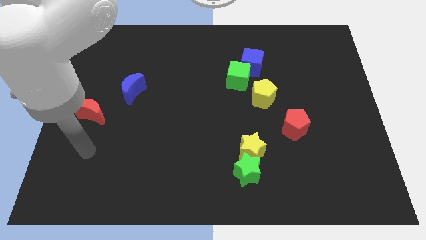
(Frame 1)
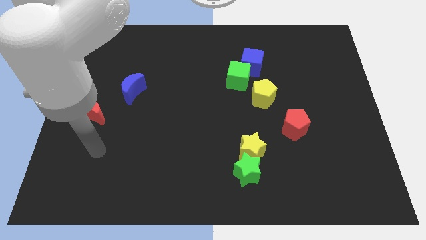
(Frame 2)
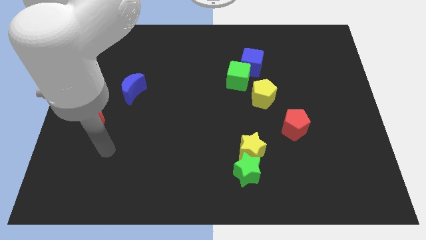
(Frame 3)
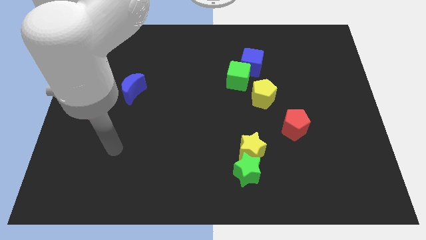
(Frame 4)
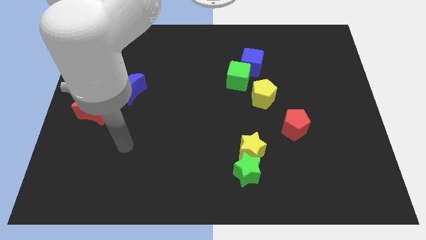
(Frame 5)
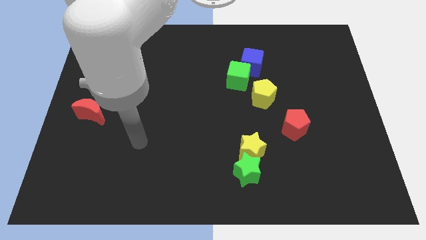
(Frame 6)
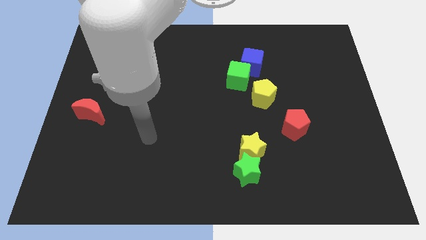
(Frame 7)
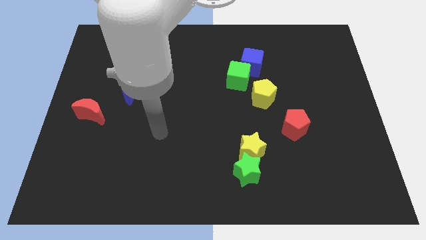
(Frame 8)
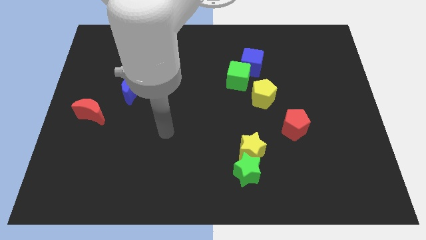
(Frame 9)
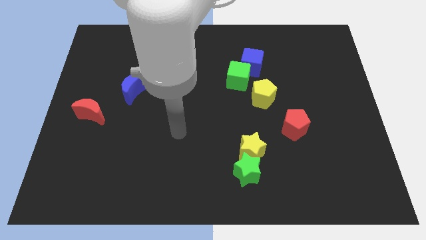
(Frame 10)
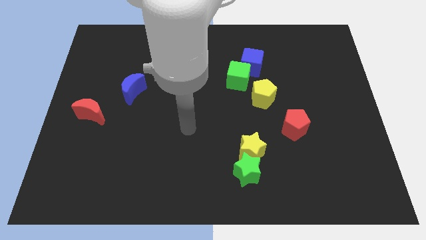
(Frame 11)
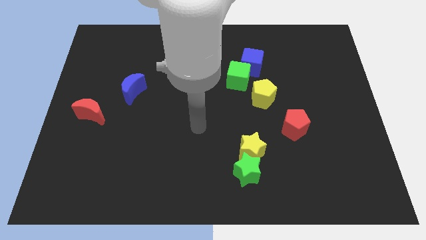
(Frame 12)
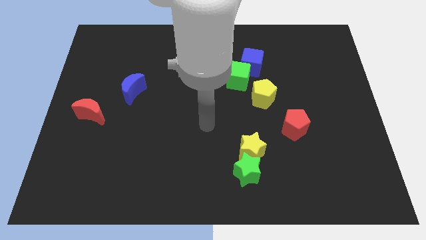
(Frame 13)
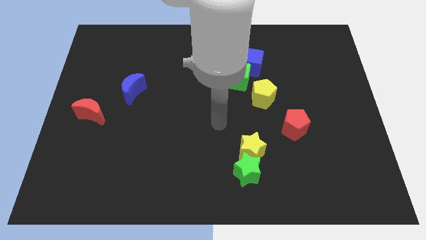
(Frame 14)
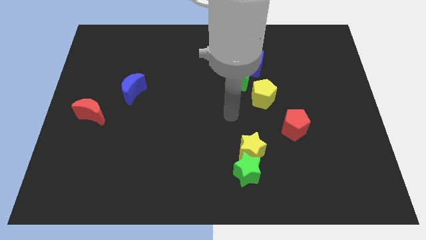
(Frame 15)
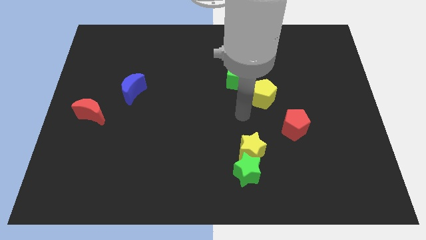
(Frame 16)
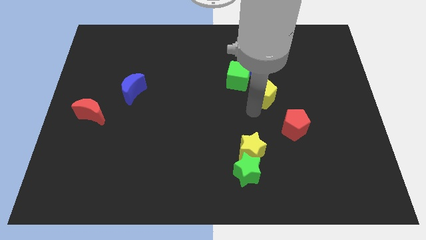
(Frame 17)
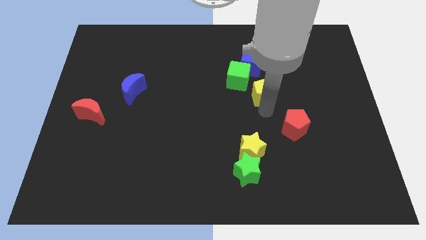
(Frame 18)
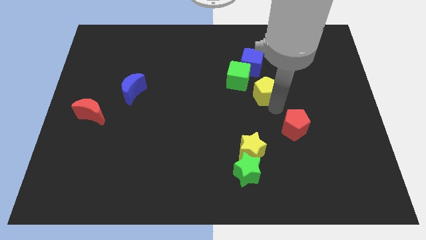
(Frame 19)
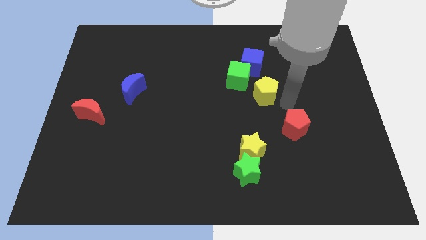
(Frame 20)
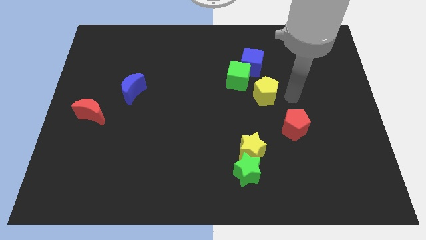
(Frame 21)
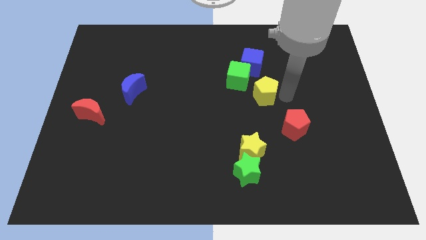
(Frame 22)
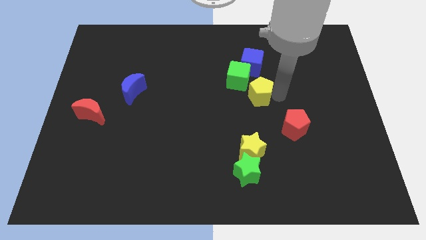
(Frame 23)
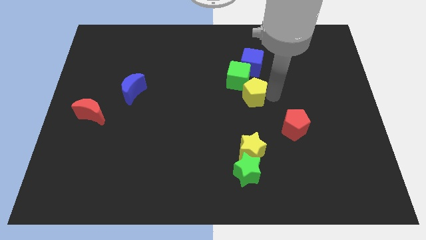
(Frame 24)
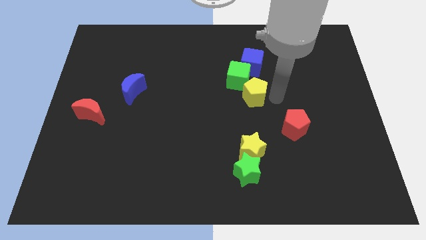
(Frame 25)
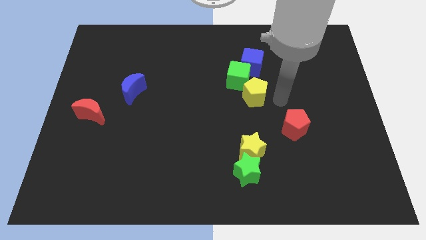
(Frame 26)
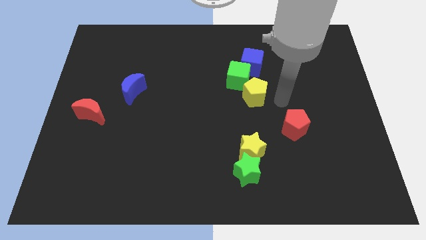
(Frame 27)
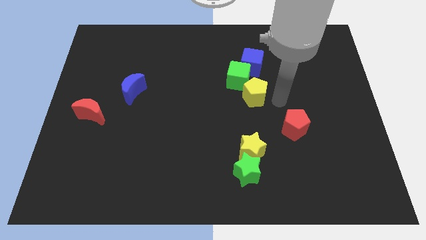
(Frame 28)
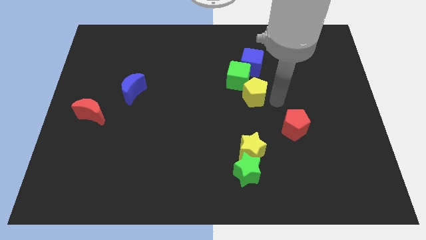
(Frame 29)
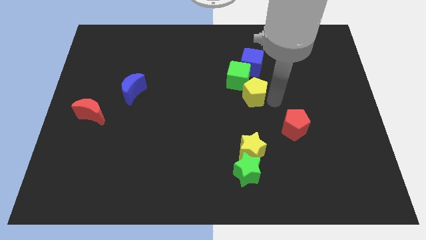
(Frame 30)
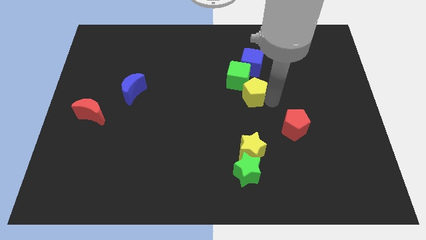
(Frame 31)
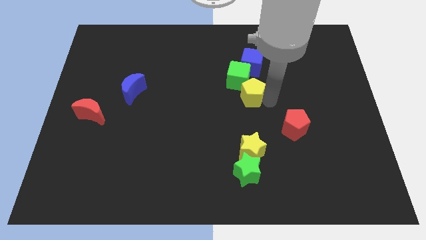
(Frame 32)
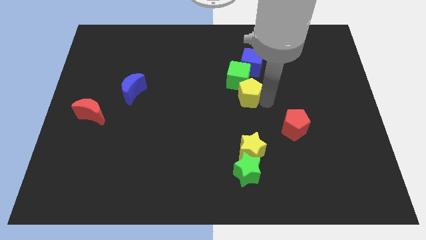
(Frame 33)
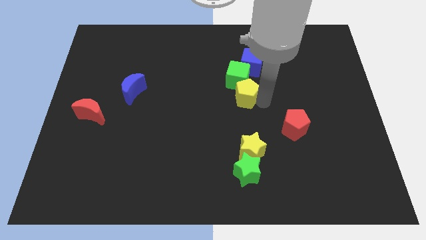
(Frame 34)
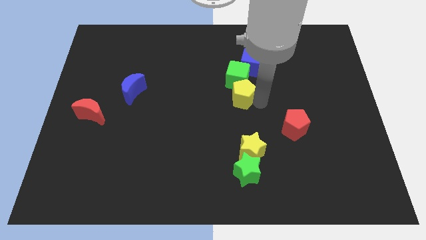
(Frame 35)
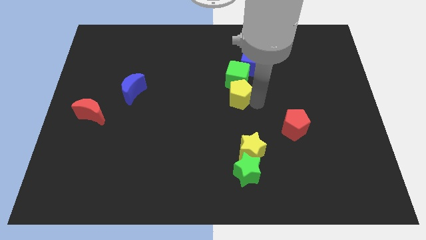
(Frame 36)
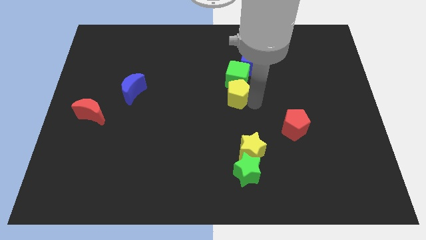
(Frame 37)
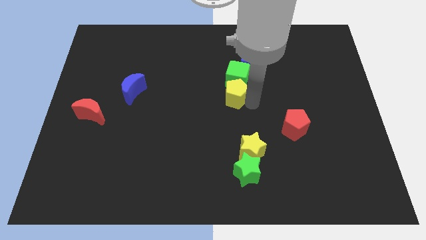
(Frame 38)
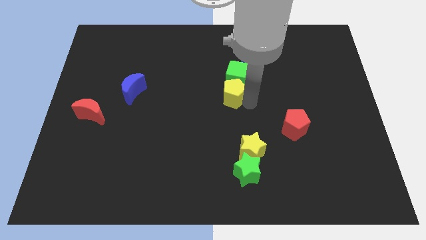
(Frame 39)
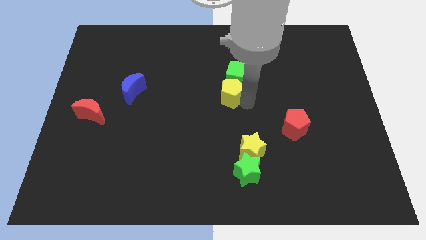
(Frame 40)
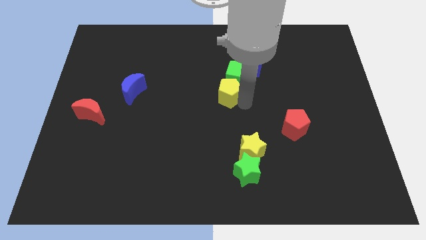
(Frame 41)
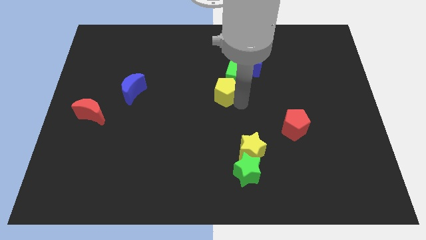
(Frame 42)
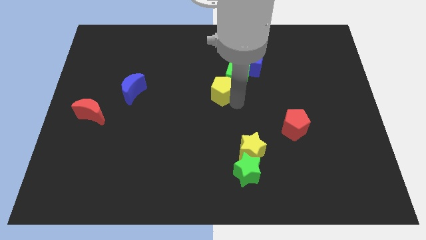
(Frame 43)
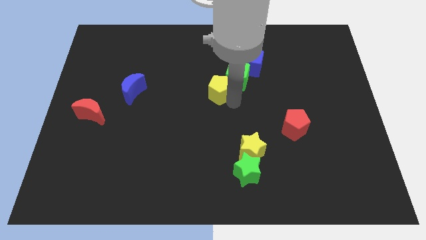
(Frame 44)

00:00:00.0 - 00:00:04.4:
push the yellow pentagon a little bit upwards and left

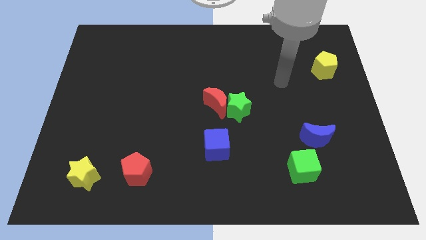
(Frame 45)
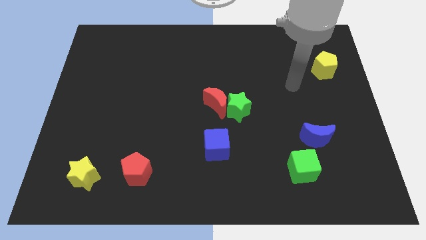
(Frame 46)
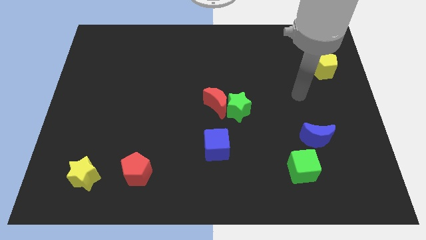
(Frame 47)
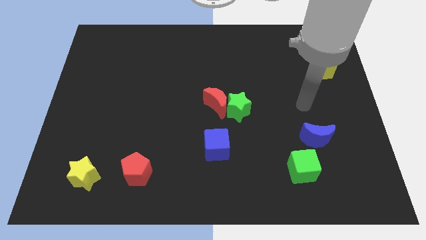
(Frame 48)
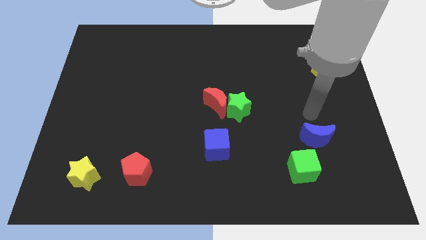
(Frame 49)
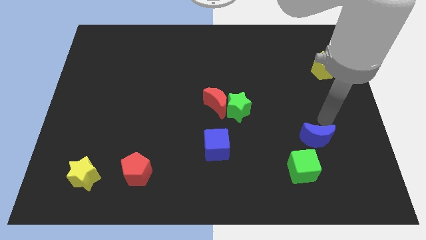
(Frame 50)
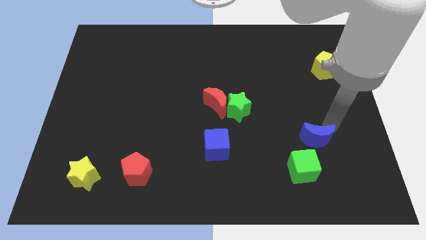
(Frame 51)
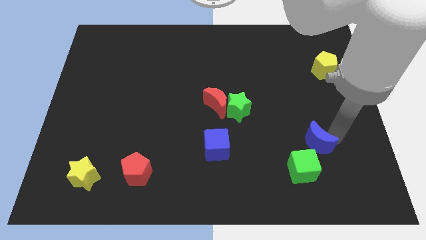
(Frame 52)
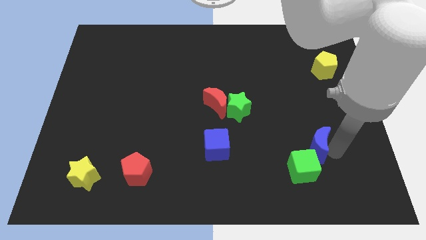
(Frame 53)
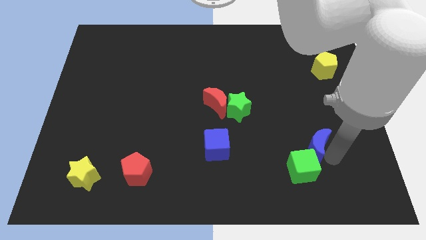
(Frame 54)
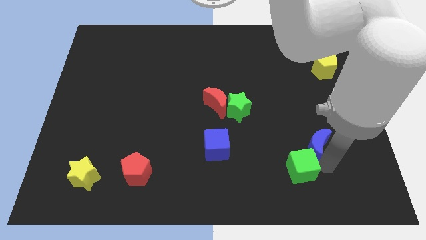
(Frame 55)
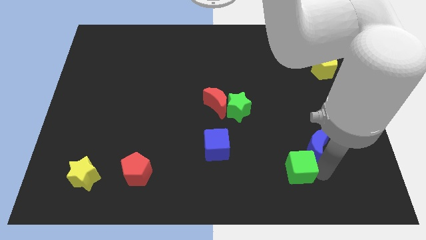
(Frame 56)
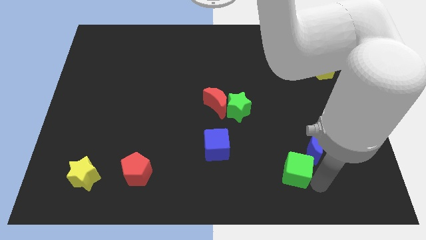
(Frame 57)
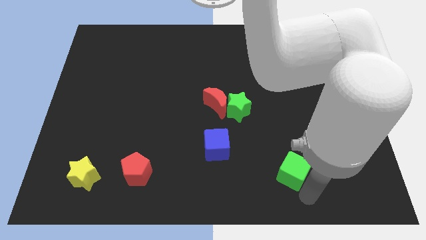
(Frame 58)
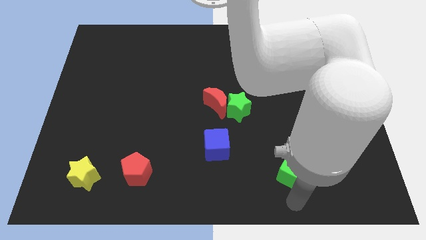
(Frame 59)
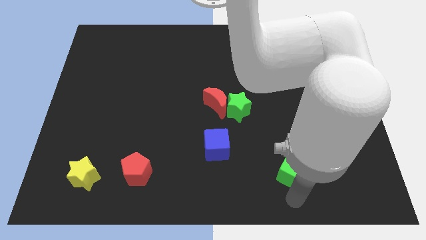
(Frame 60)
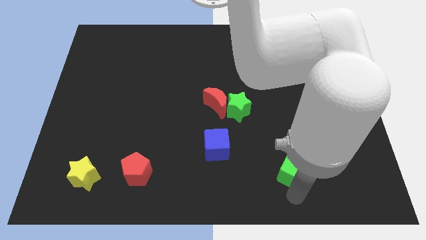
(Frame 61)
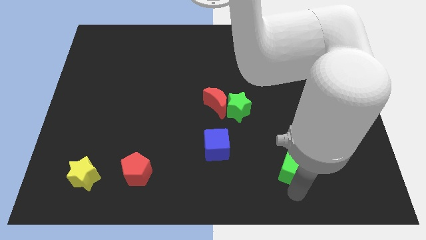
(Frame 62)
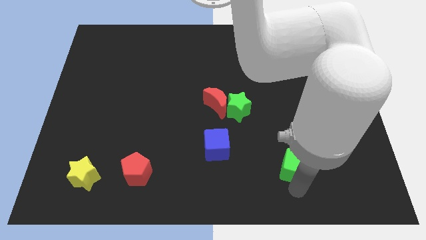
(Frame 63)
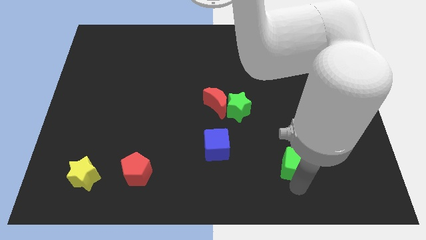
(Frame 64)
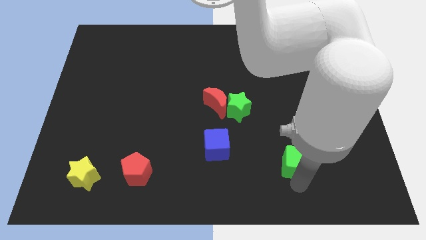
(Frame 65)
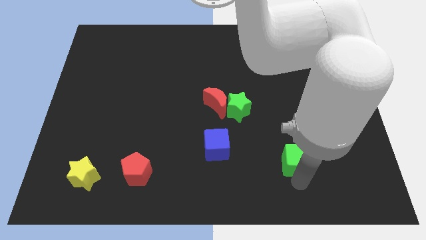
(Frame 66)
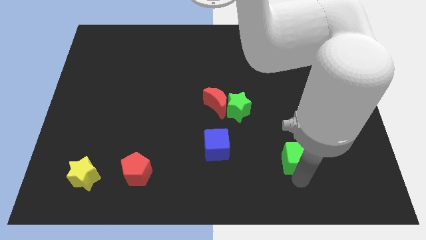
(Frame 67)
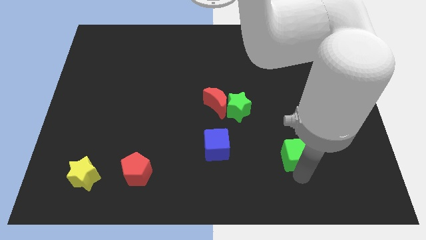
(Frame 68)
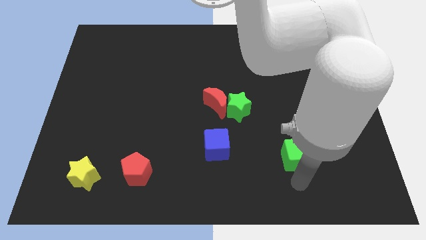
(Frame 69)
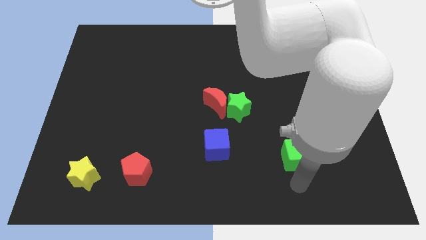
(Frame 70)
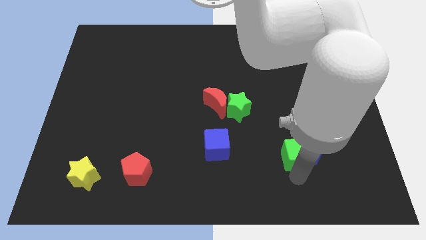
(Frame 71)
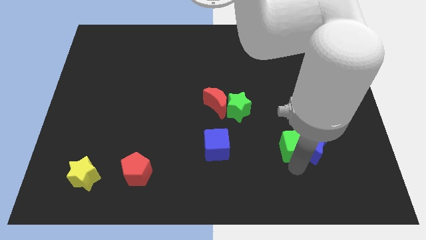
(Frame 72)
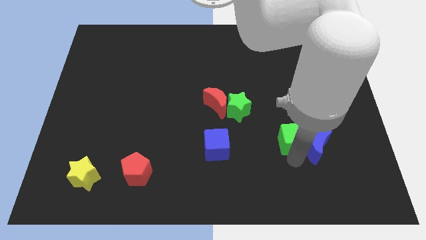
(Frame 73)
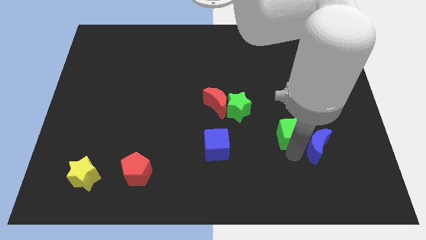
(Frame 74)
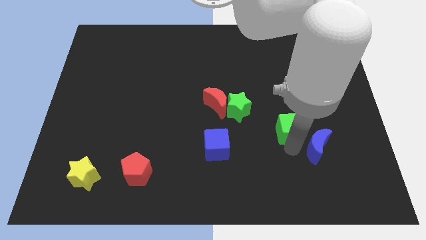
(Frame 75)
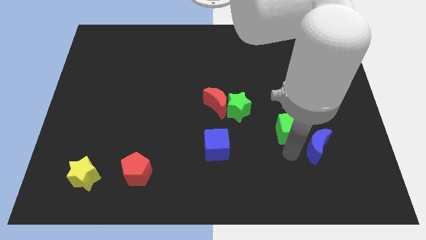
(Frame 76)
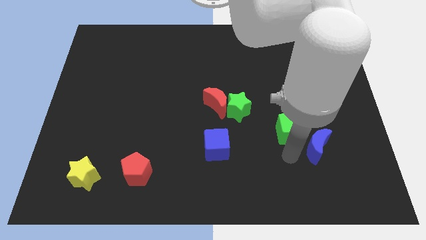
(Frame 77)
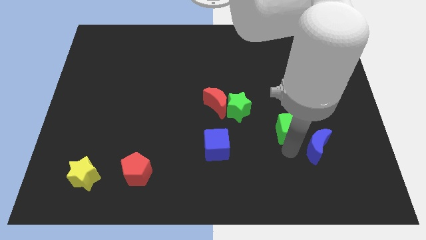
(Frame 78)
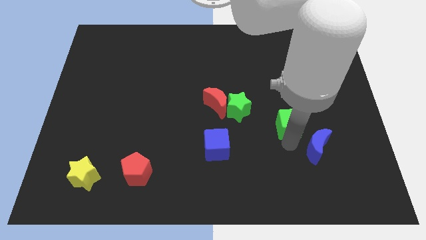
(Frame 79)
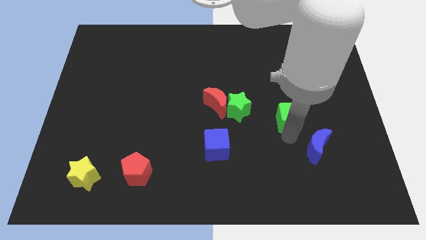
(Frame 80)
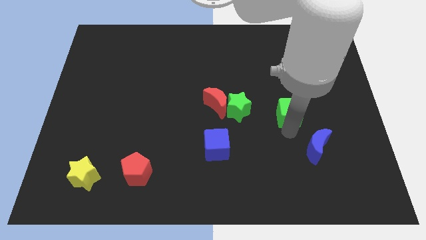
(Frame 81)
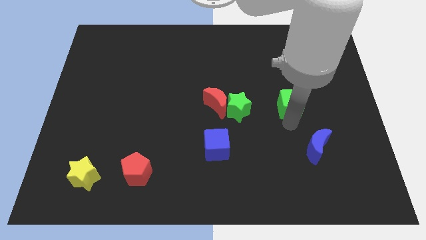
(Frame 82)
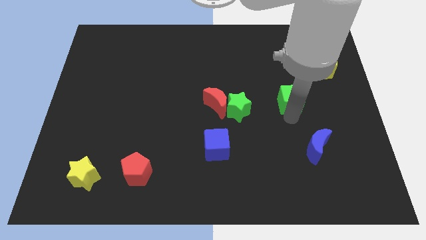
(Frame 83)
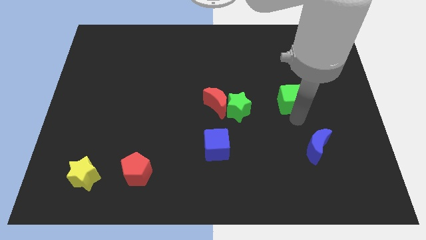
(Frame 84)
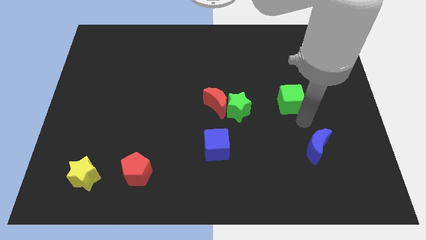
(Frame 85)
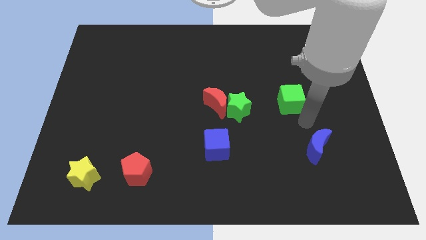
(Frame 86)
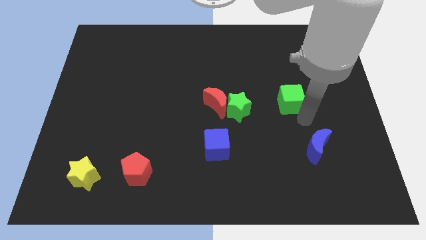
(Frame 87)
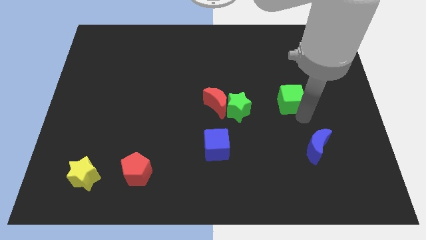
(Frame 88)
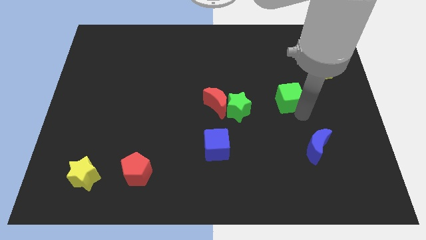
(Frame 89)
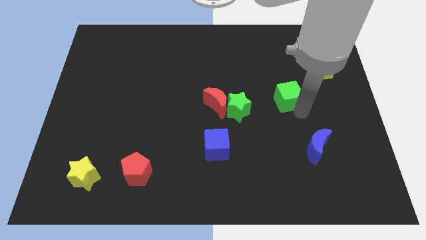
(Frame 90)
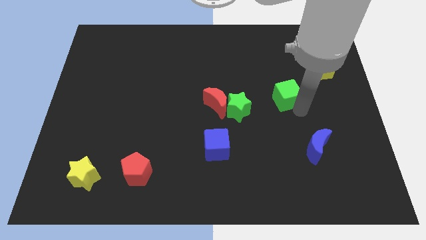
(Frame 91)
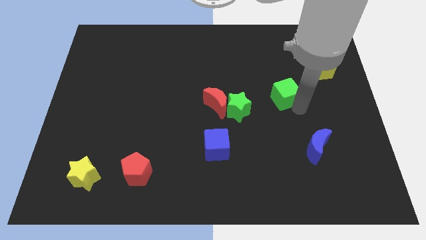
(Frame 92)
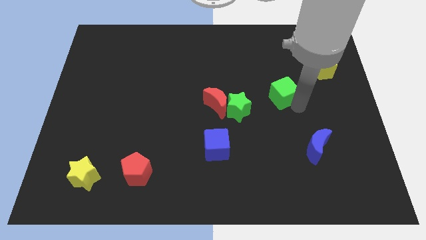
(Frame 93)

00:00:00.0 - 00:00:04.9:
move the green cube upwards
